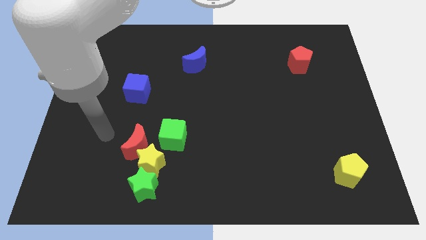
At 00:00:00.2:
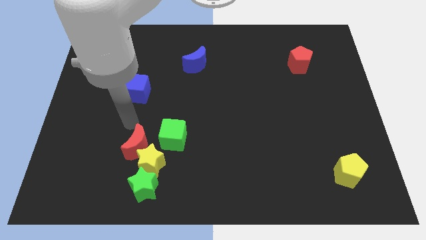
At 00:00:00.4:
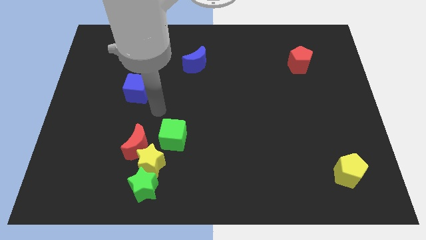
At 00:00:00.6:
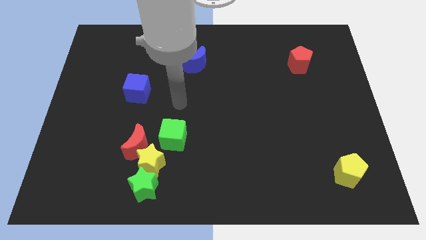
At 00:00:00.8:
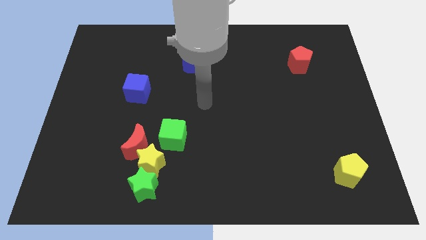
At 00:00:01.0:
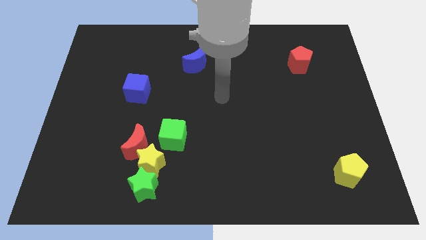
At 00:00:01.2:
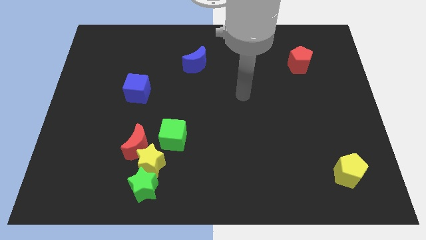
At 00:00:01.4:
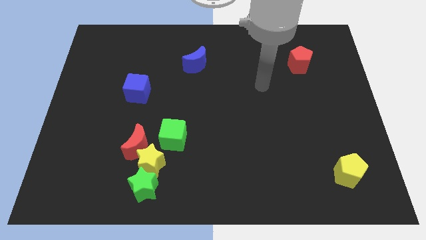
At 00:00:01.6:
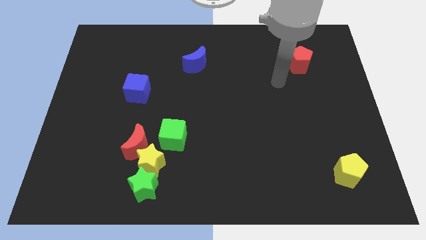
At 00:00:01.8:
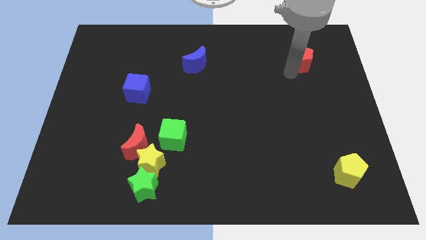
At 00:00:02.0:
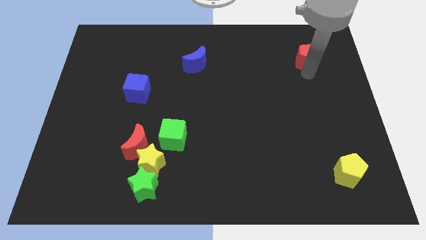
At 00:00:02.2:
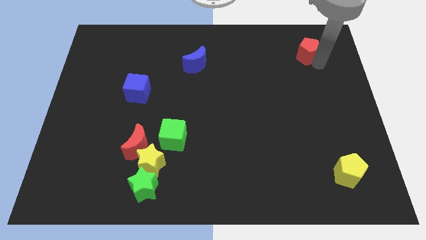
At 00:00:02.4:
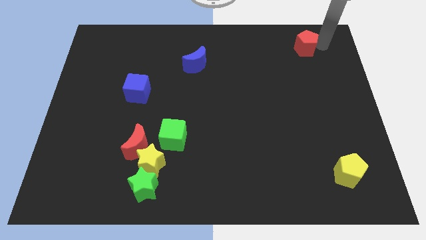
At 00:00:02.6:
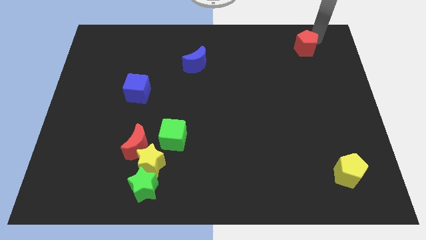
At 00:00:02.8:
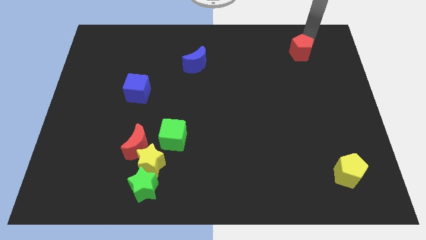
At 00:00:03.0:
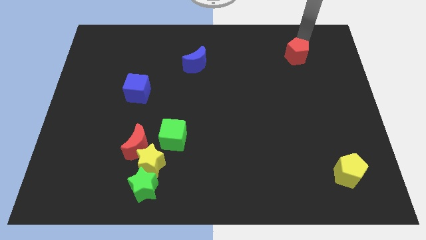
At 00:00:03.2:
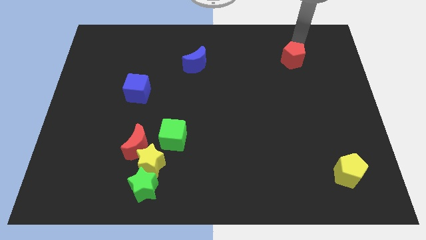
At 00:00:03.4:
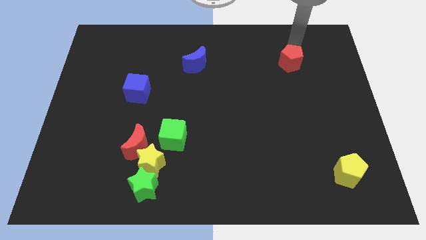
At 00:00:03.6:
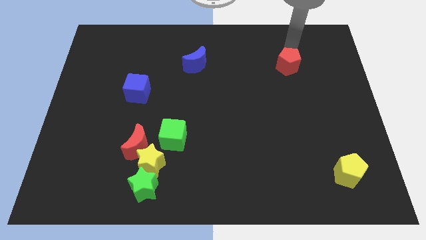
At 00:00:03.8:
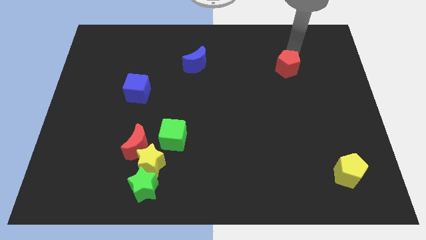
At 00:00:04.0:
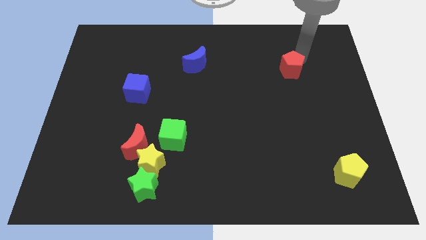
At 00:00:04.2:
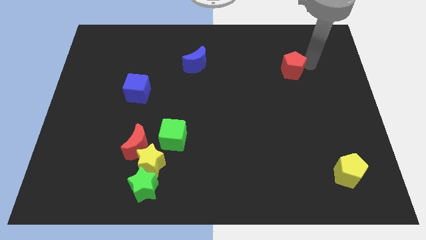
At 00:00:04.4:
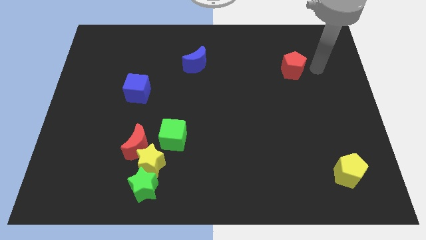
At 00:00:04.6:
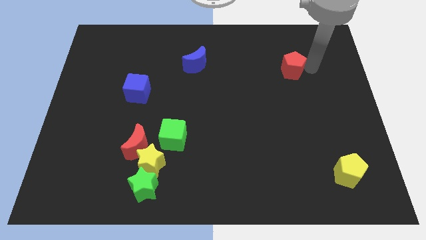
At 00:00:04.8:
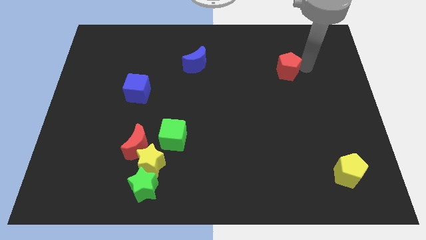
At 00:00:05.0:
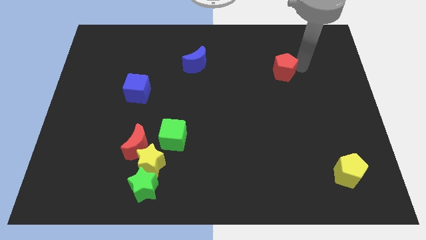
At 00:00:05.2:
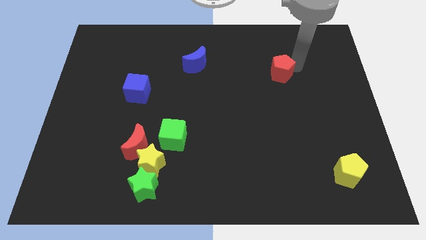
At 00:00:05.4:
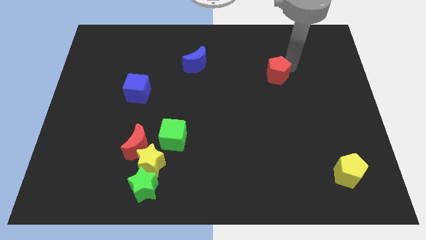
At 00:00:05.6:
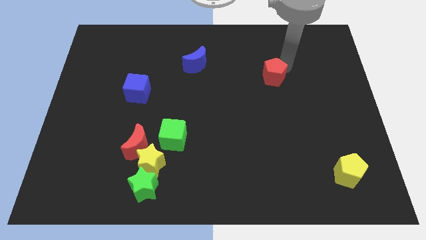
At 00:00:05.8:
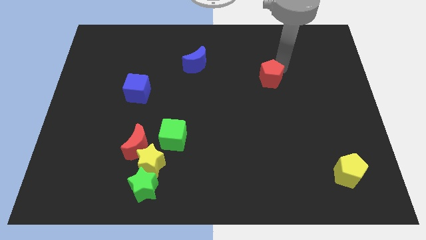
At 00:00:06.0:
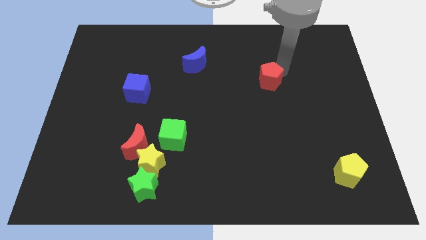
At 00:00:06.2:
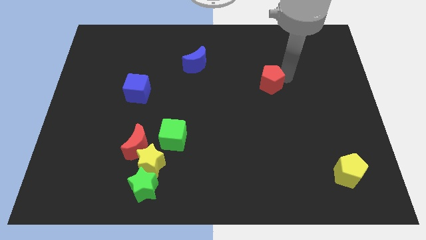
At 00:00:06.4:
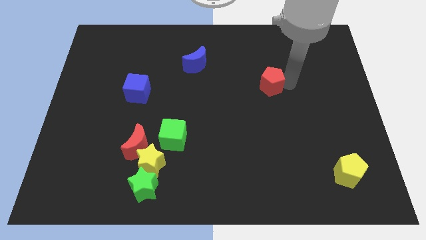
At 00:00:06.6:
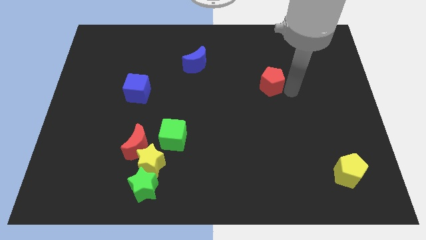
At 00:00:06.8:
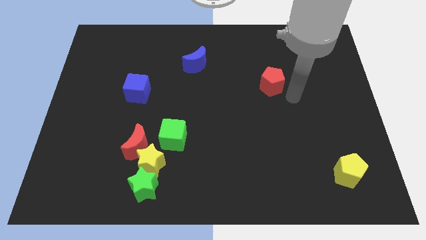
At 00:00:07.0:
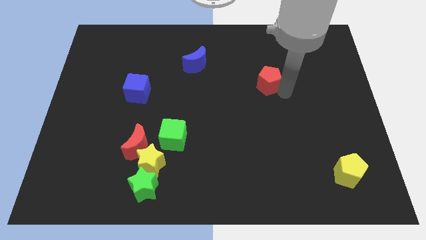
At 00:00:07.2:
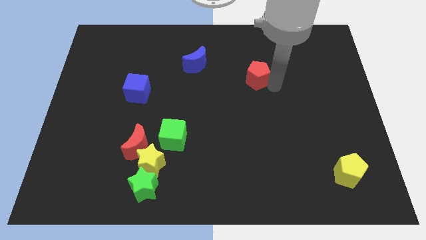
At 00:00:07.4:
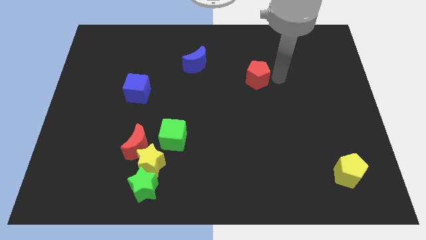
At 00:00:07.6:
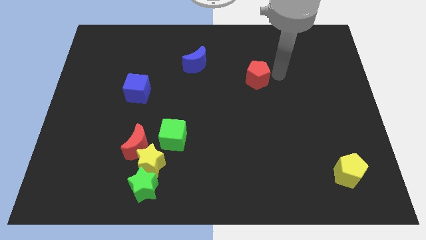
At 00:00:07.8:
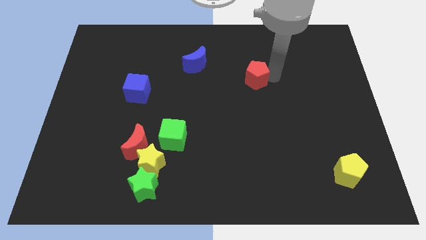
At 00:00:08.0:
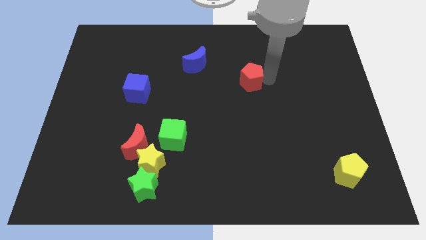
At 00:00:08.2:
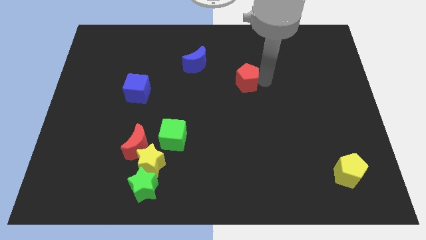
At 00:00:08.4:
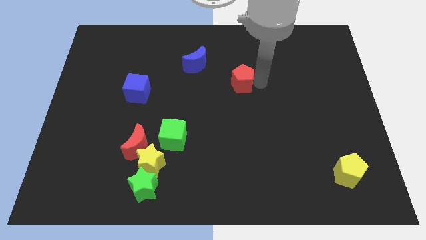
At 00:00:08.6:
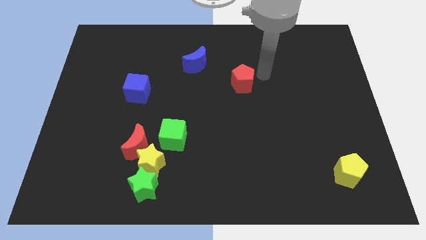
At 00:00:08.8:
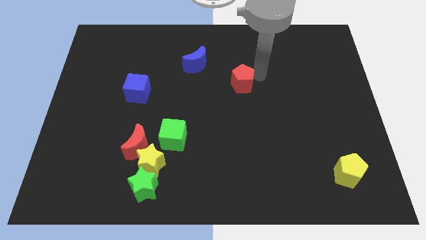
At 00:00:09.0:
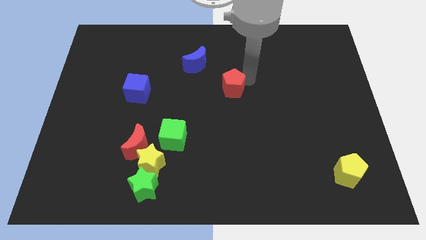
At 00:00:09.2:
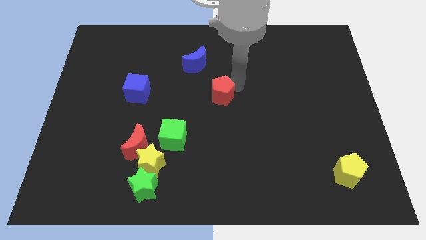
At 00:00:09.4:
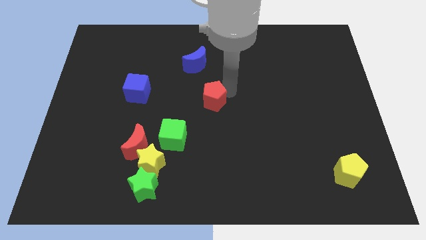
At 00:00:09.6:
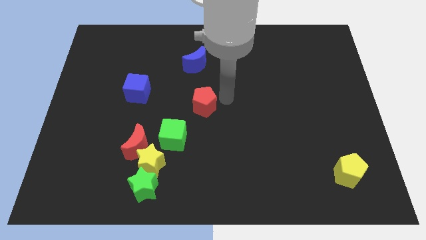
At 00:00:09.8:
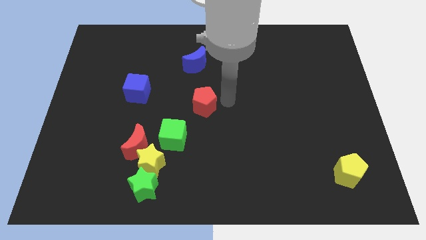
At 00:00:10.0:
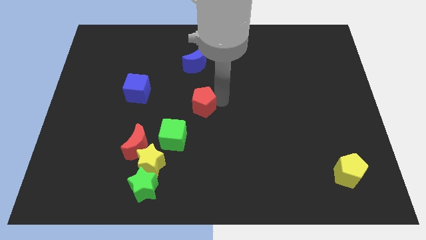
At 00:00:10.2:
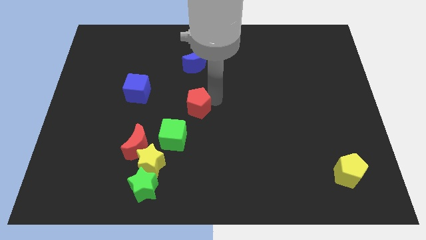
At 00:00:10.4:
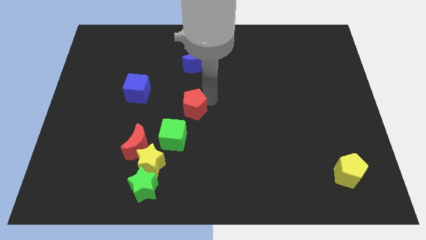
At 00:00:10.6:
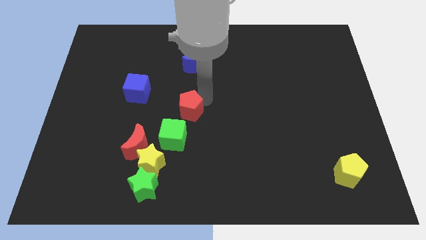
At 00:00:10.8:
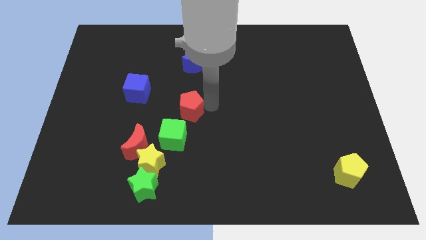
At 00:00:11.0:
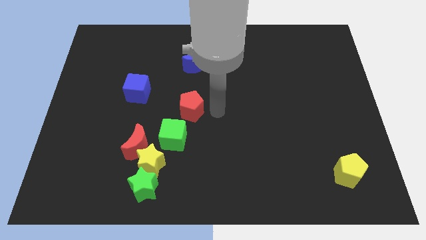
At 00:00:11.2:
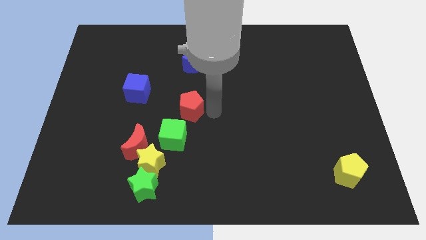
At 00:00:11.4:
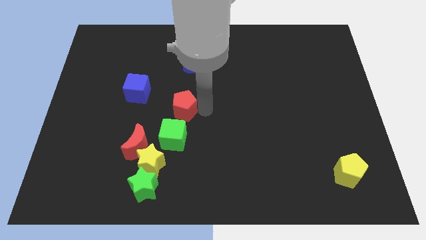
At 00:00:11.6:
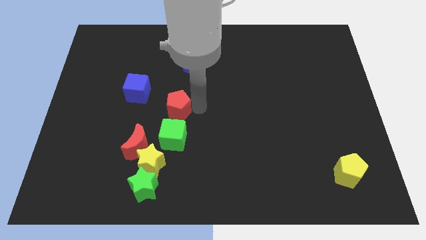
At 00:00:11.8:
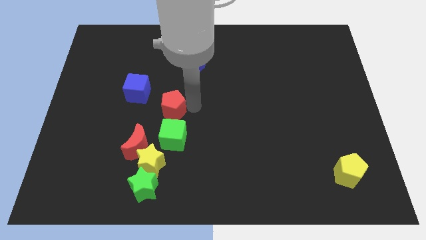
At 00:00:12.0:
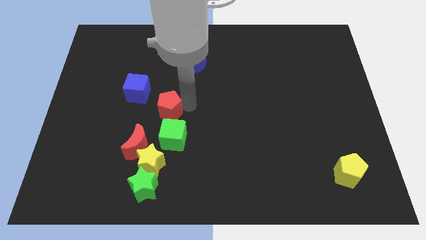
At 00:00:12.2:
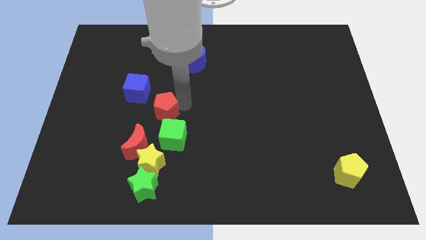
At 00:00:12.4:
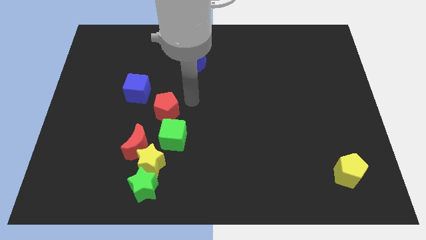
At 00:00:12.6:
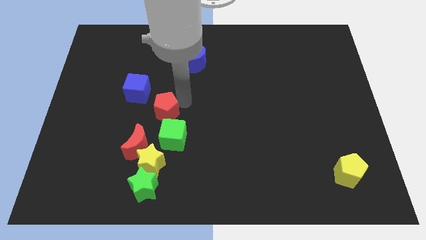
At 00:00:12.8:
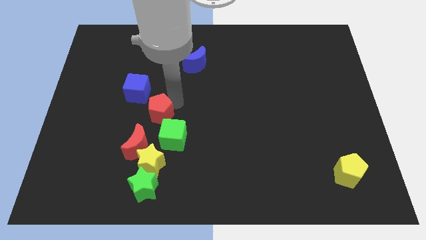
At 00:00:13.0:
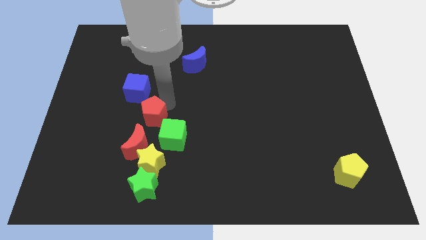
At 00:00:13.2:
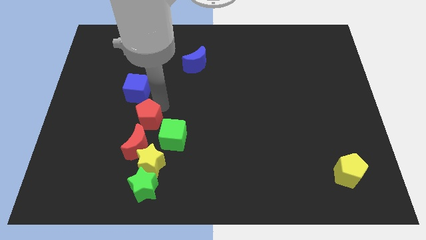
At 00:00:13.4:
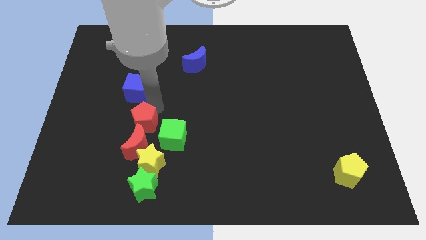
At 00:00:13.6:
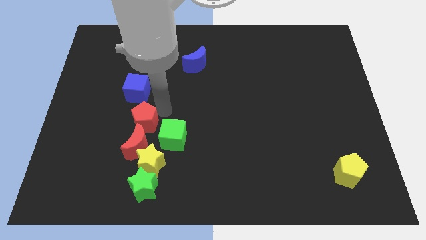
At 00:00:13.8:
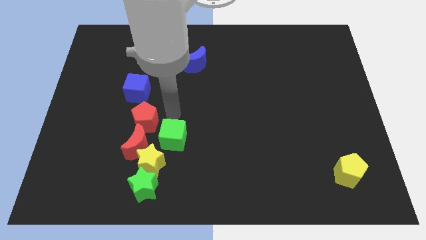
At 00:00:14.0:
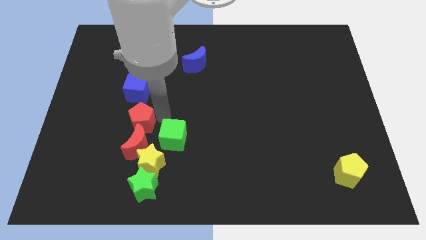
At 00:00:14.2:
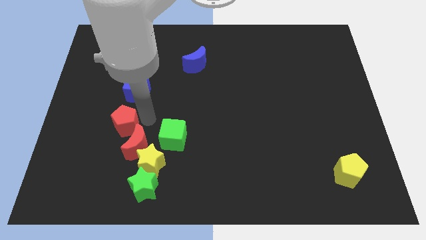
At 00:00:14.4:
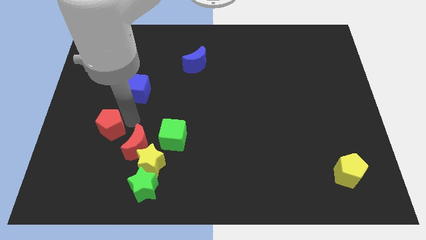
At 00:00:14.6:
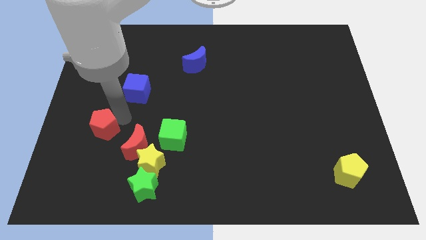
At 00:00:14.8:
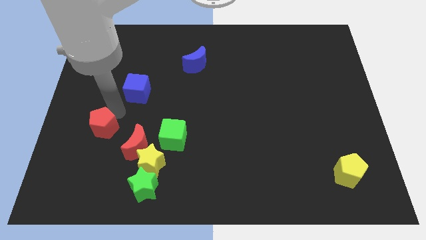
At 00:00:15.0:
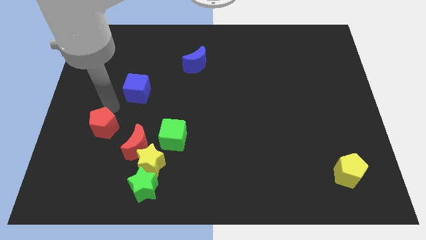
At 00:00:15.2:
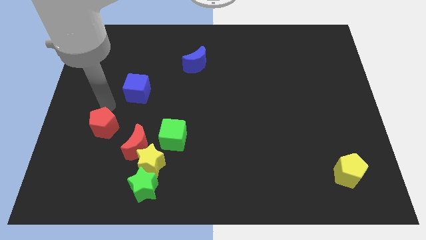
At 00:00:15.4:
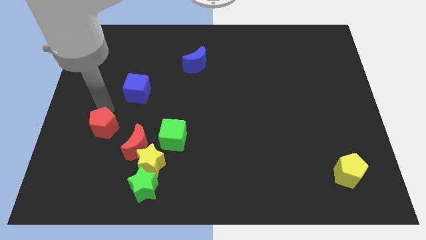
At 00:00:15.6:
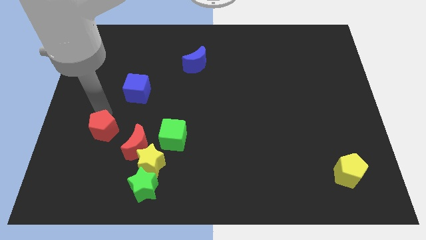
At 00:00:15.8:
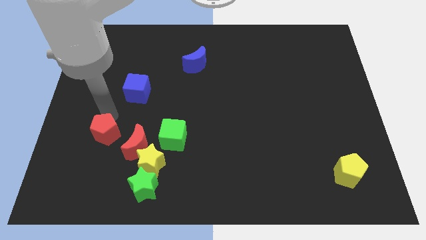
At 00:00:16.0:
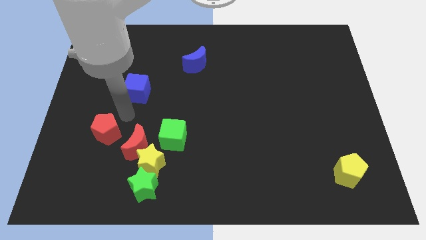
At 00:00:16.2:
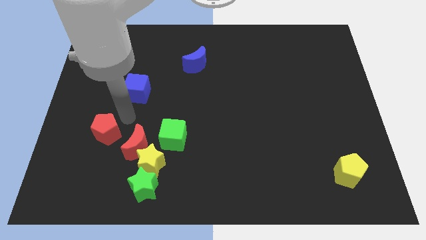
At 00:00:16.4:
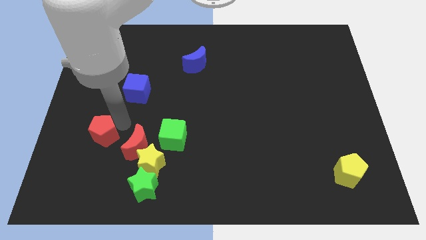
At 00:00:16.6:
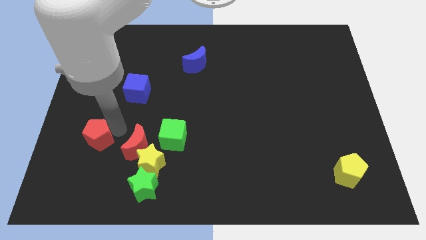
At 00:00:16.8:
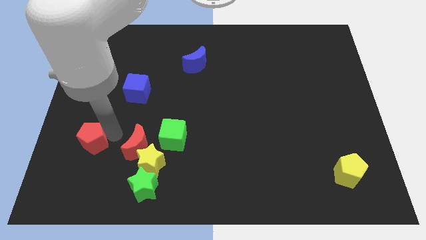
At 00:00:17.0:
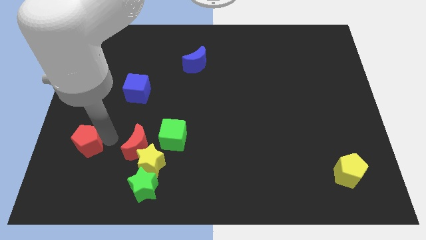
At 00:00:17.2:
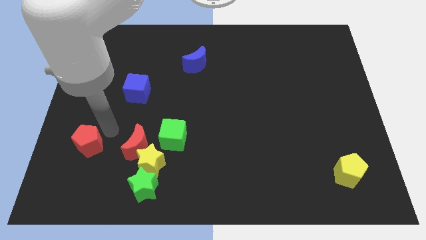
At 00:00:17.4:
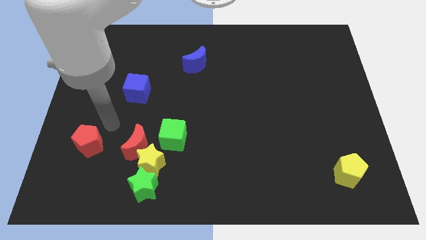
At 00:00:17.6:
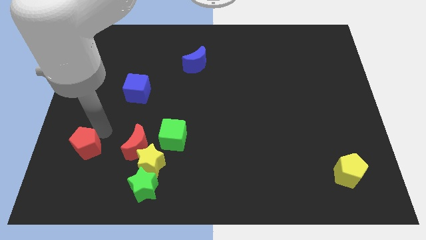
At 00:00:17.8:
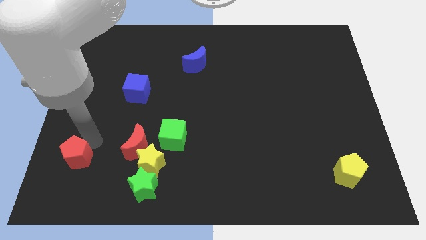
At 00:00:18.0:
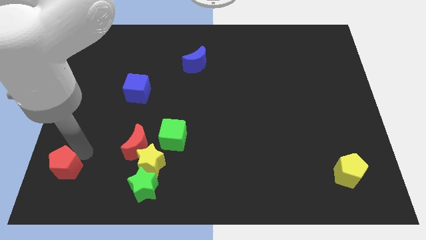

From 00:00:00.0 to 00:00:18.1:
push the red pentagon to the lower left corner
